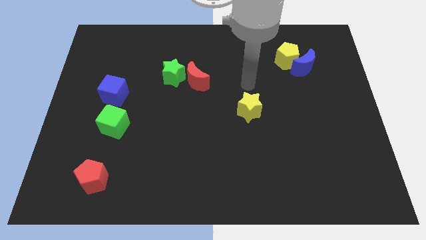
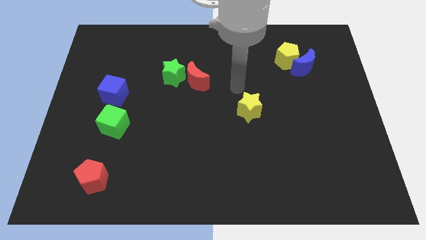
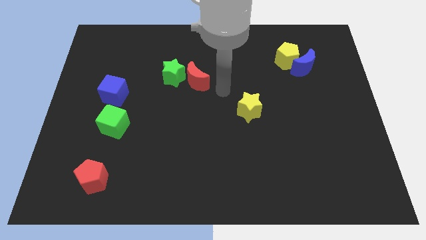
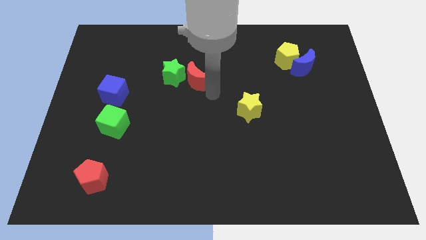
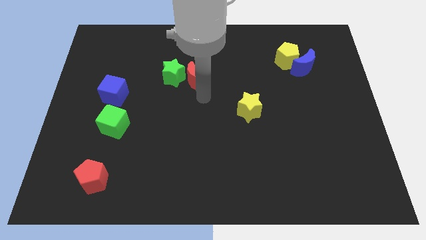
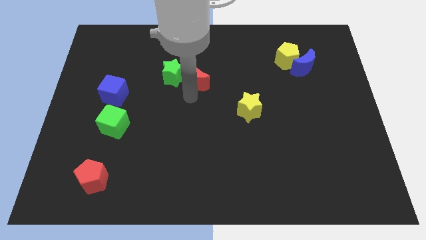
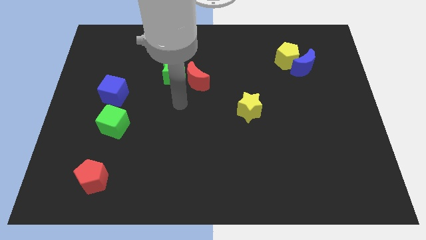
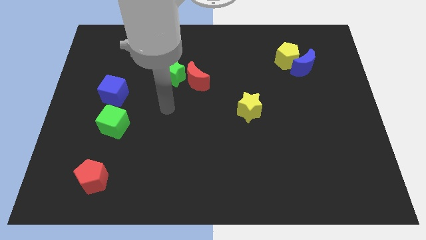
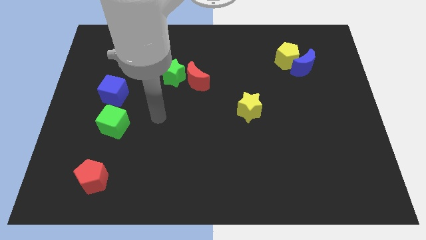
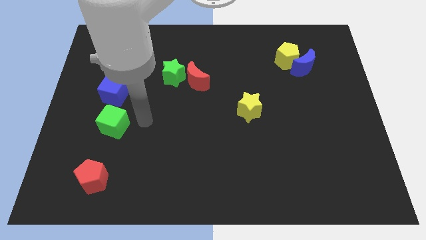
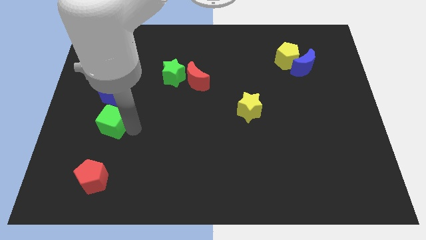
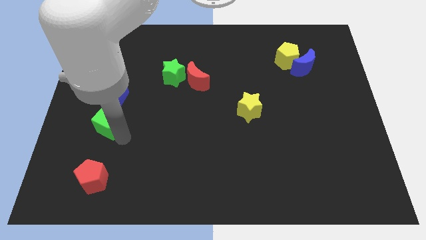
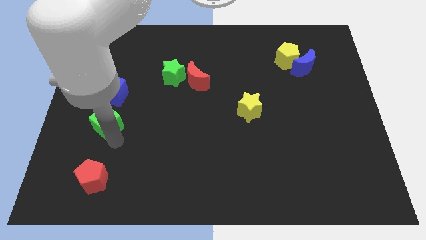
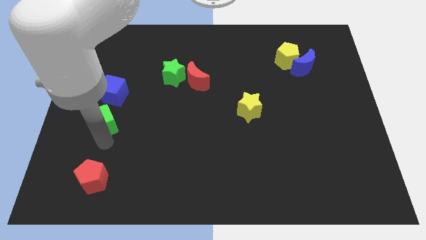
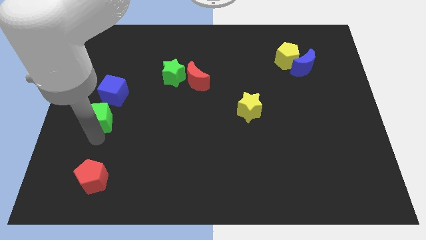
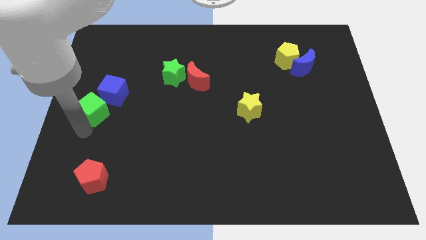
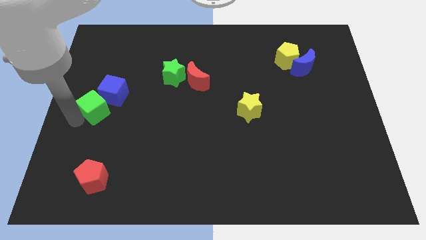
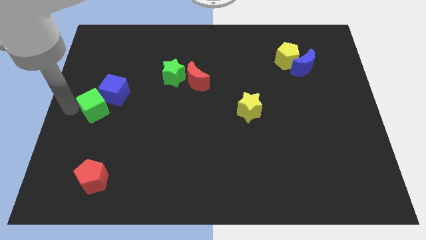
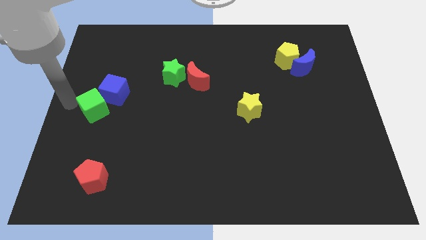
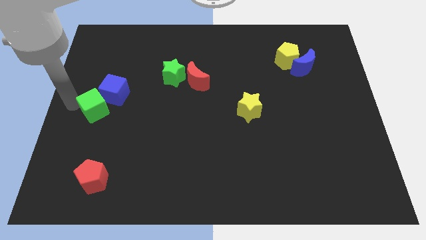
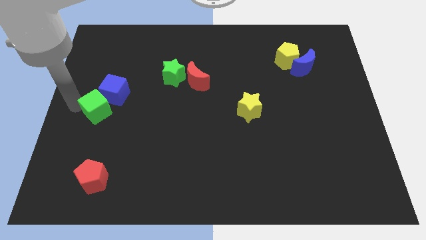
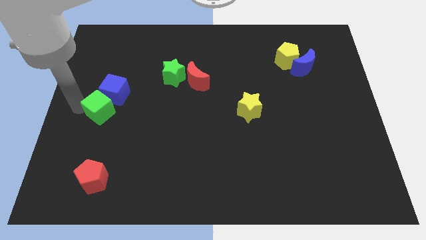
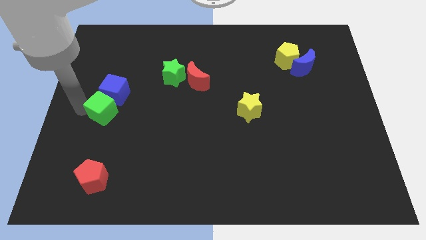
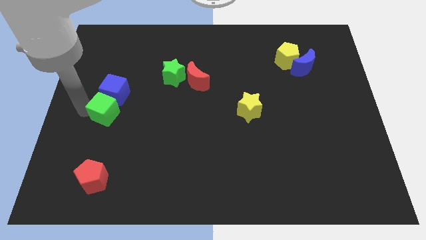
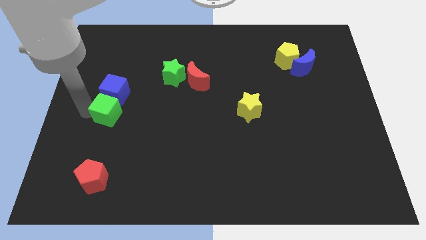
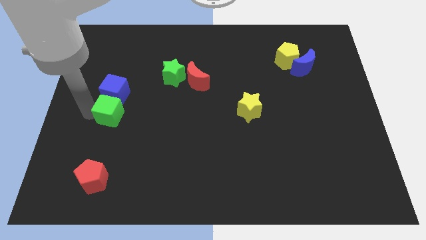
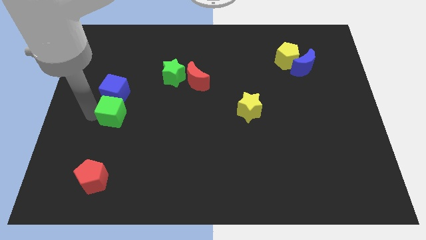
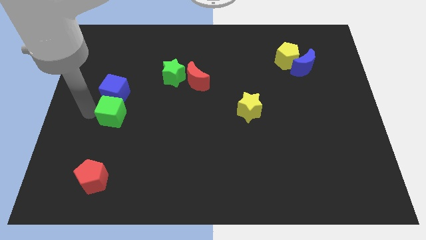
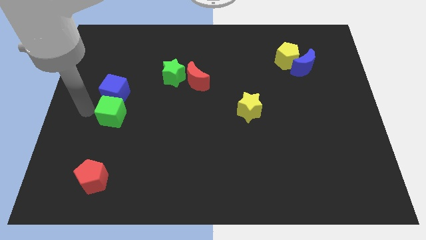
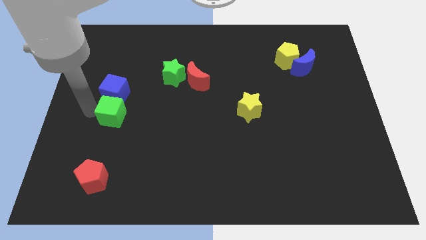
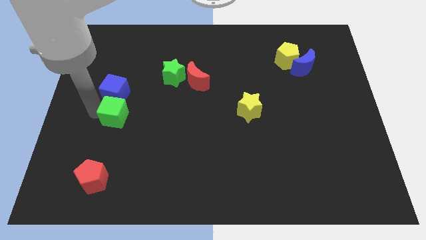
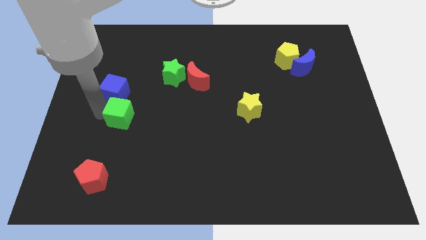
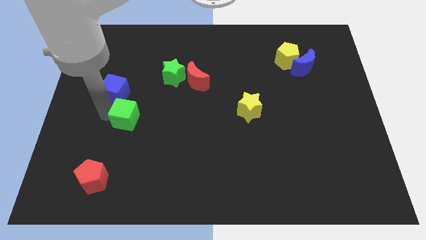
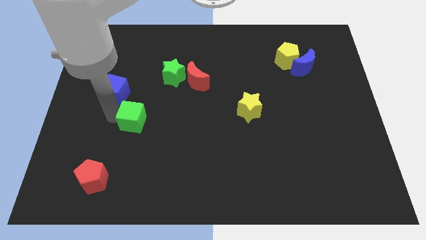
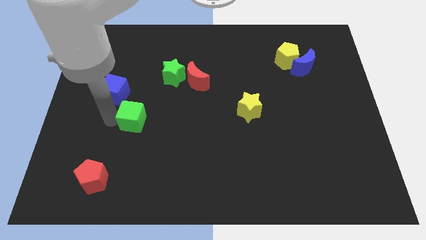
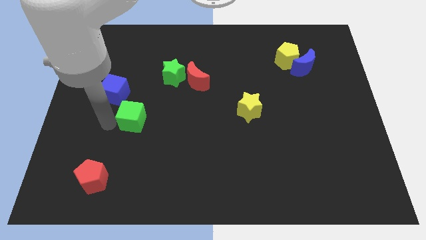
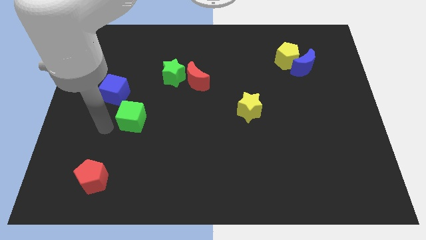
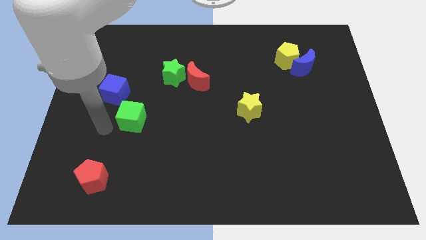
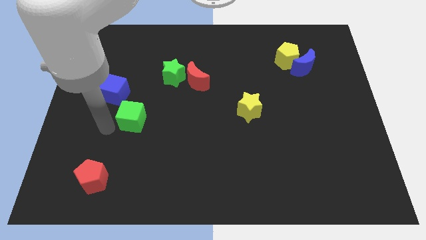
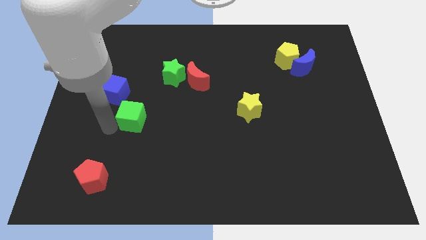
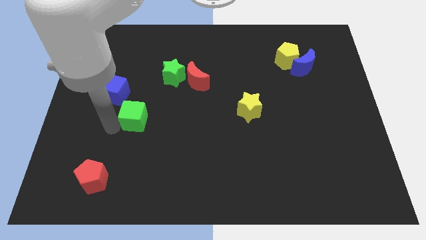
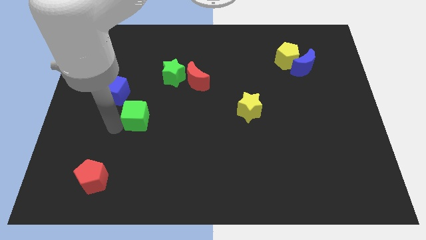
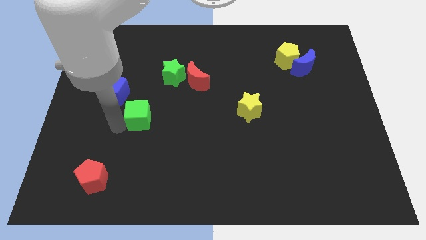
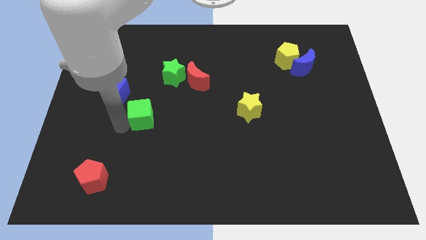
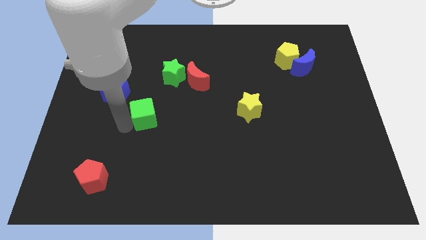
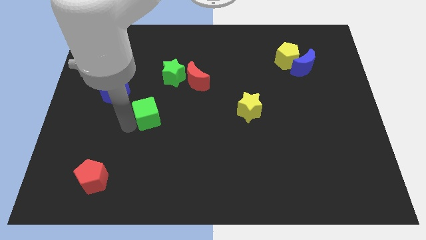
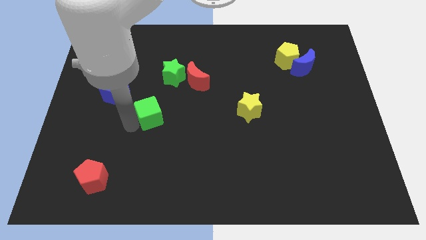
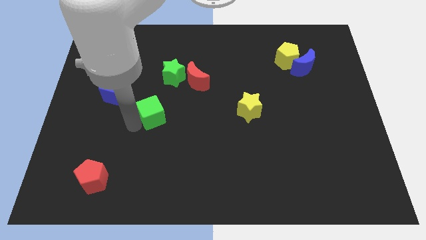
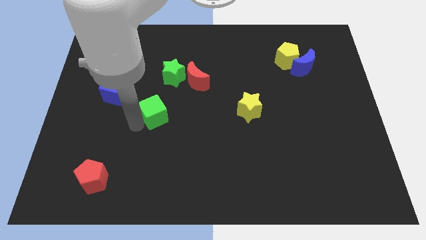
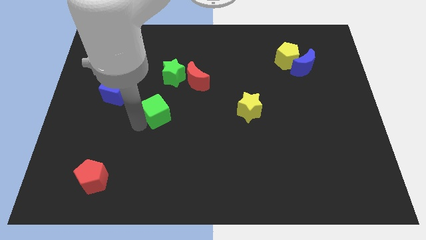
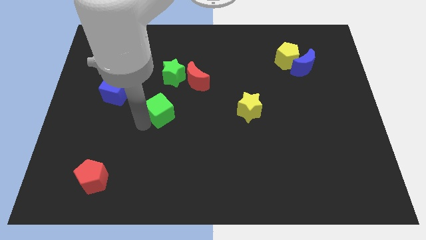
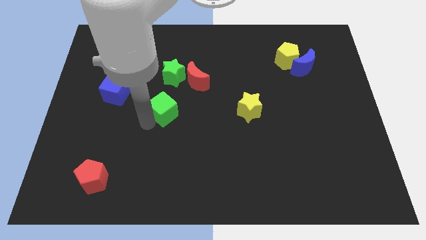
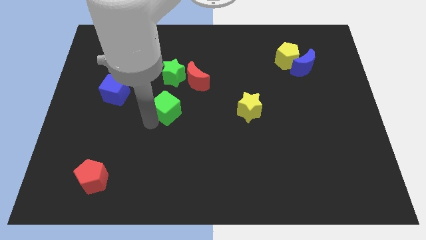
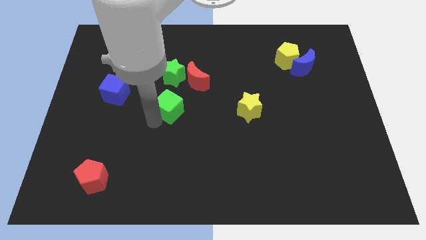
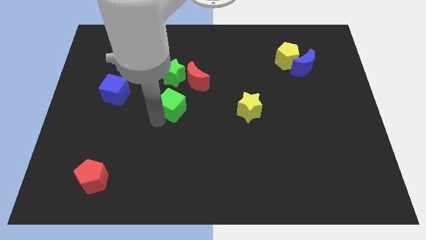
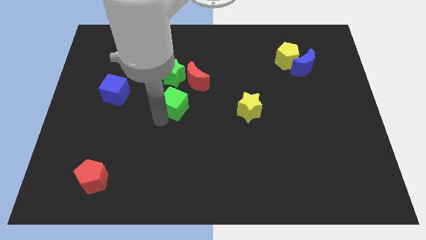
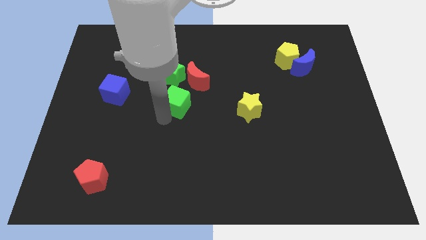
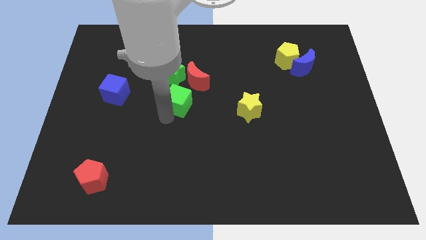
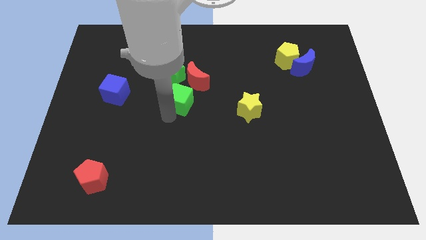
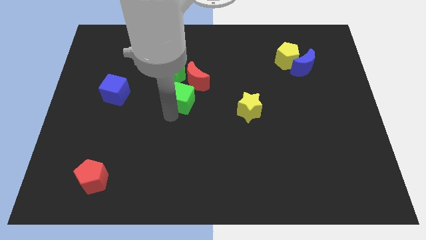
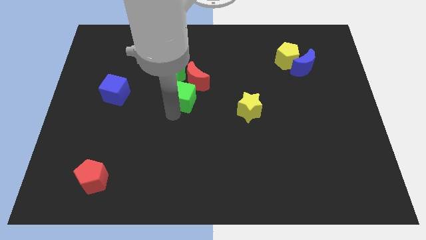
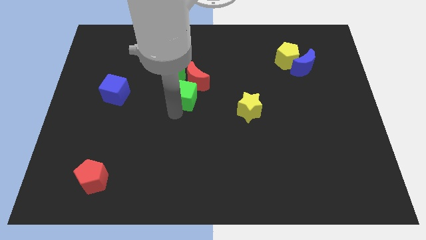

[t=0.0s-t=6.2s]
push the green cube to the red moon

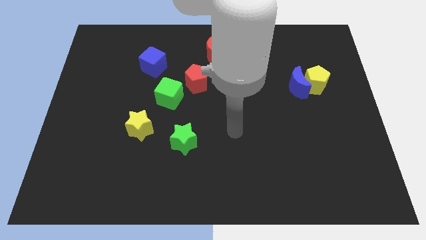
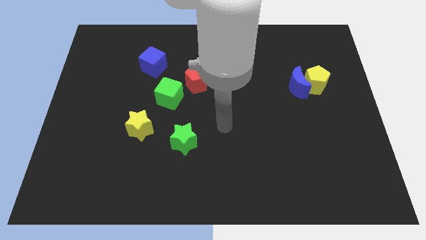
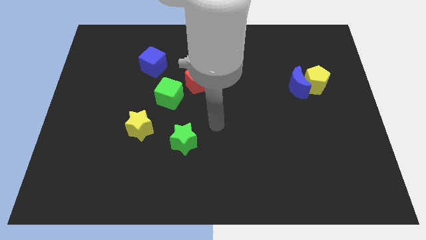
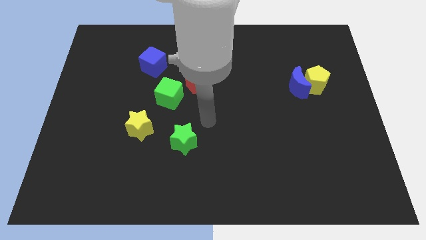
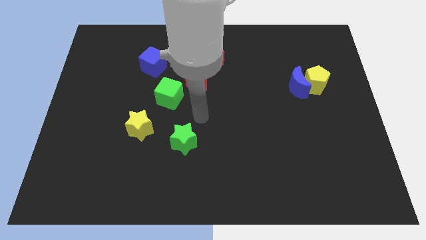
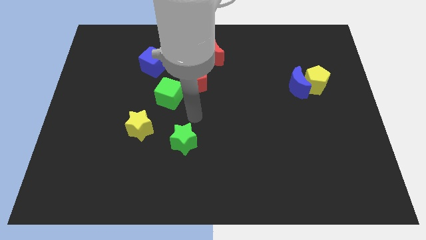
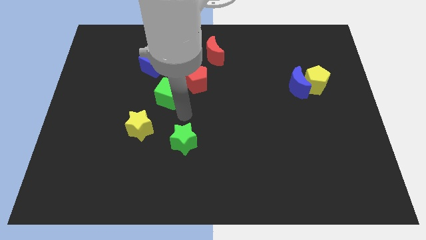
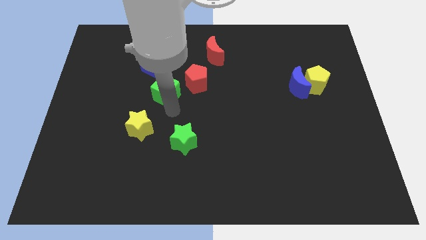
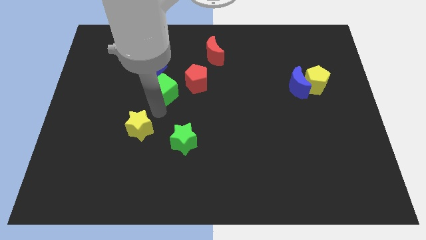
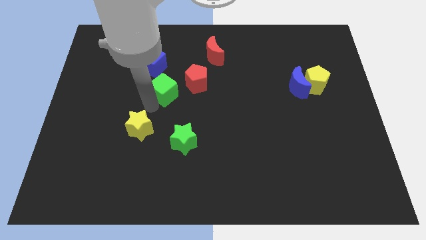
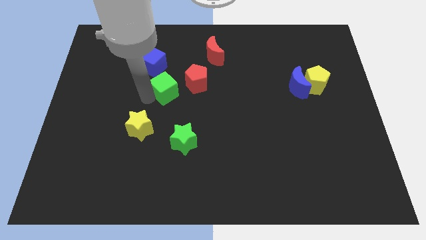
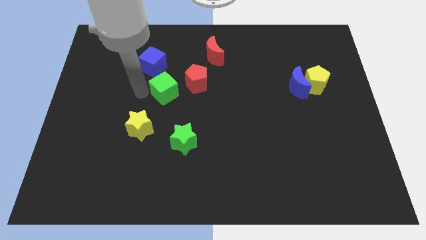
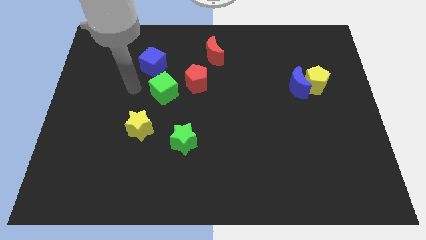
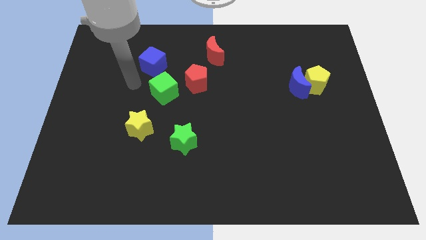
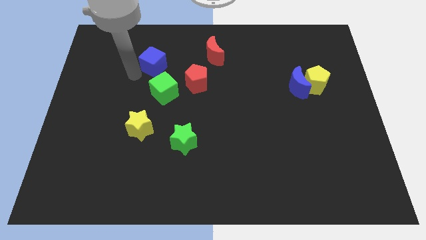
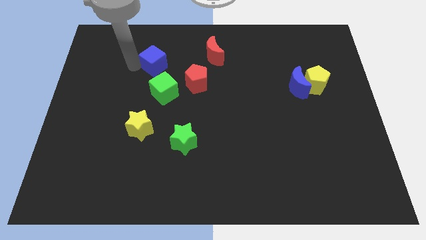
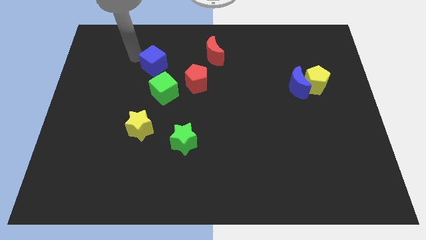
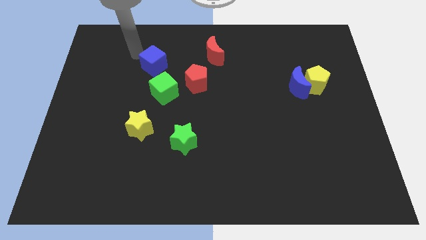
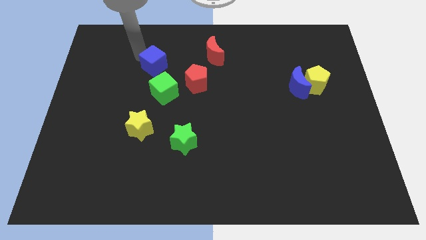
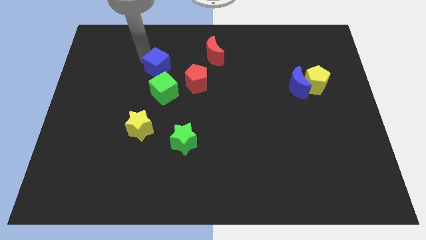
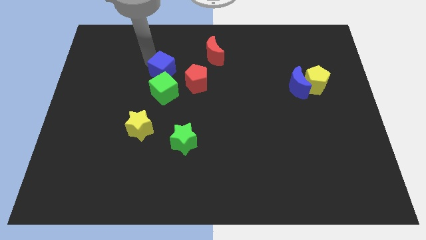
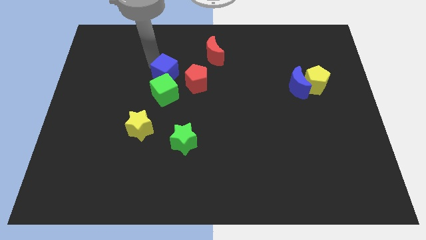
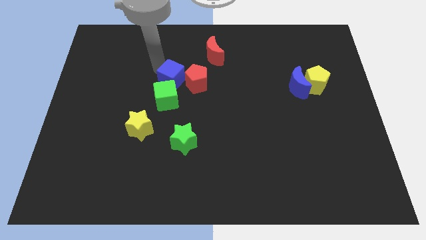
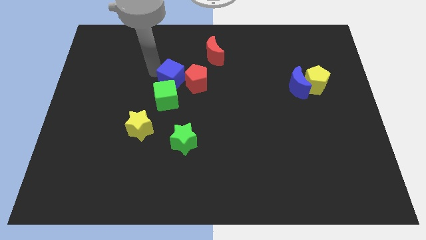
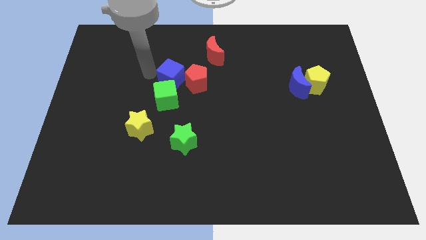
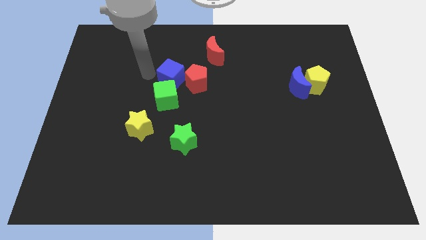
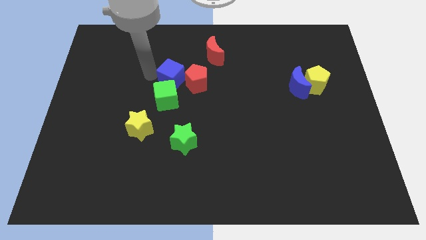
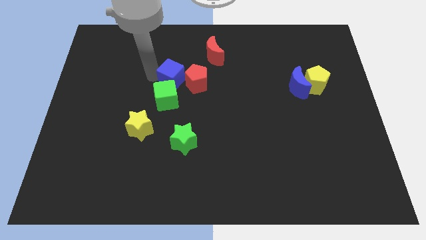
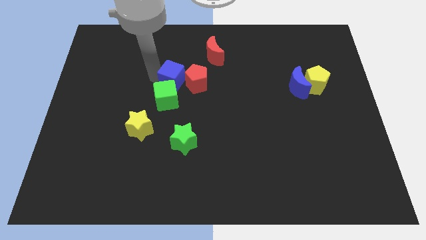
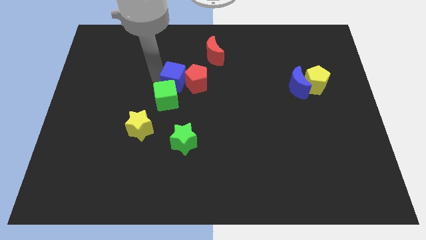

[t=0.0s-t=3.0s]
put the blue cube to the red pentagon
